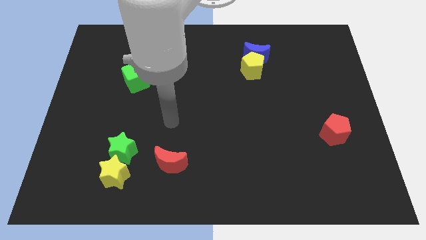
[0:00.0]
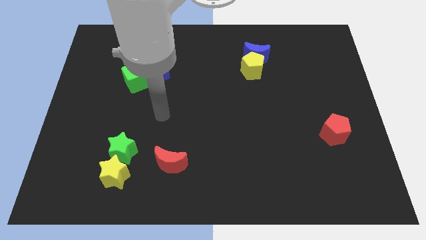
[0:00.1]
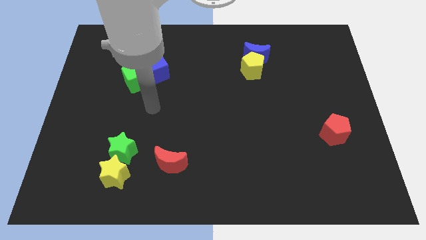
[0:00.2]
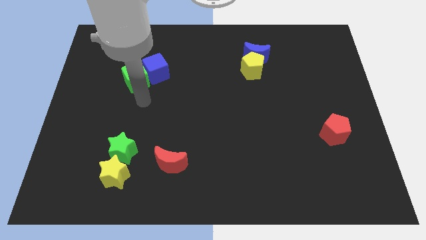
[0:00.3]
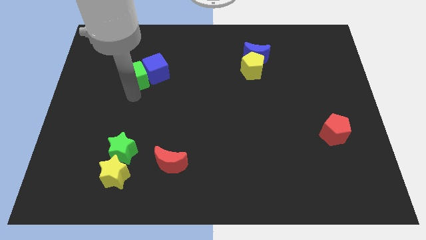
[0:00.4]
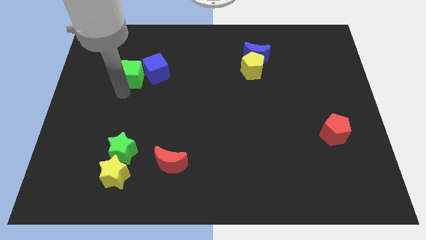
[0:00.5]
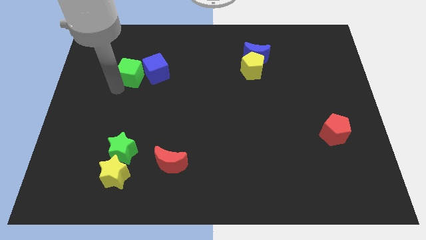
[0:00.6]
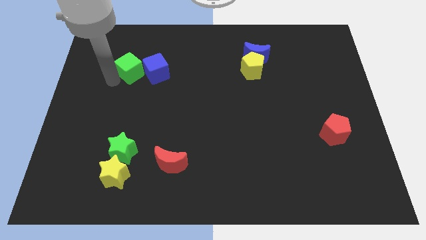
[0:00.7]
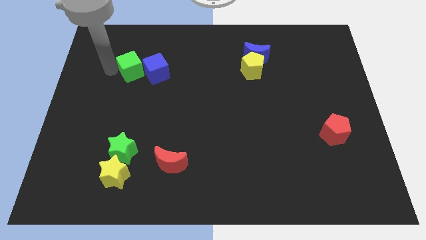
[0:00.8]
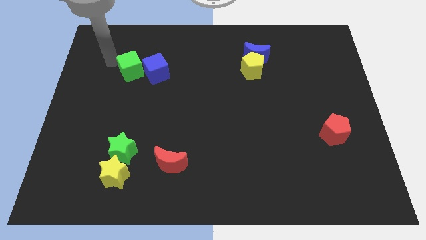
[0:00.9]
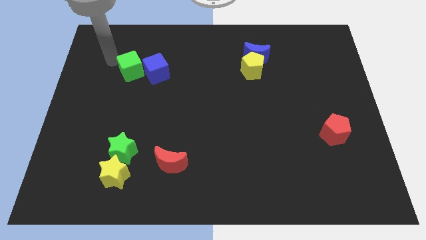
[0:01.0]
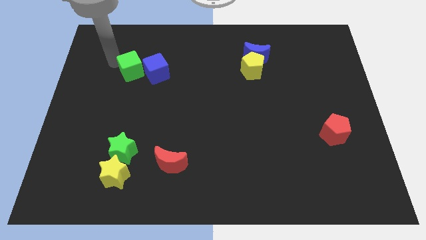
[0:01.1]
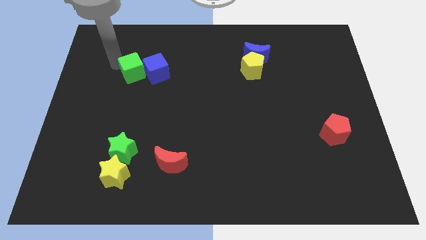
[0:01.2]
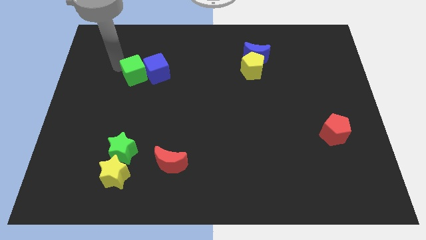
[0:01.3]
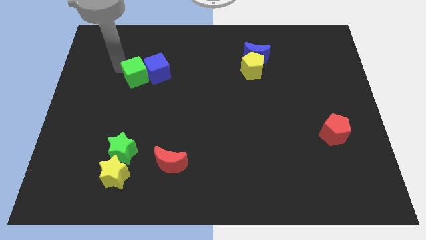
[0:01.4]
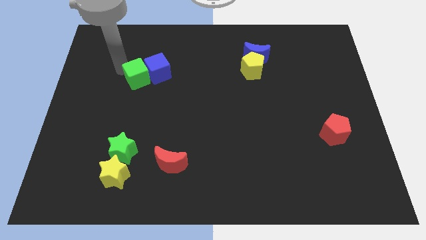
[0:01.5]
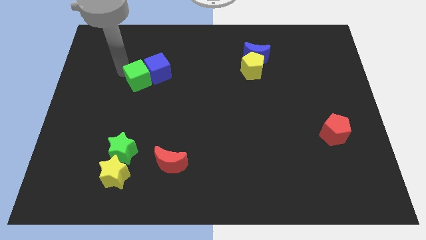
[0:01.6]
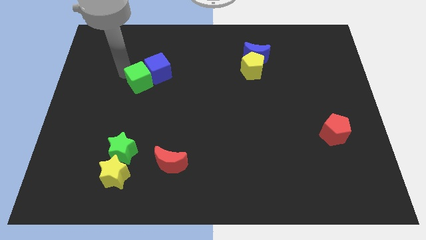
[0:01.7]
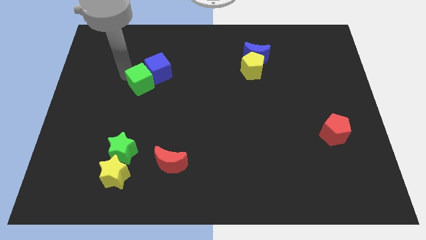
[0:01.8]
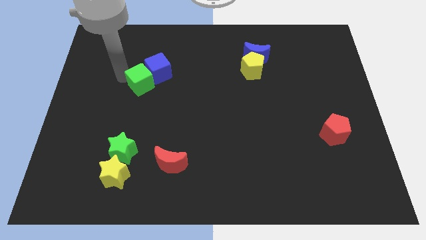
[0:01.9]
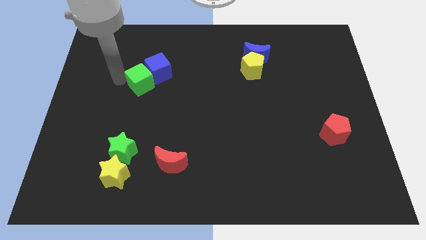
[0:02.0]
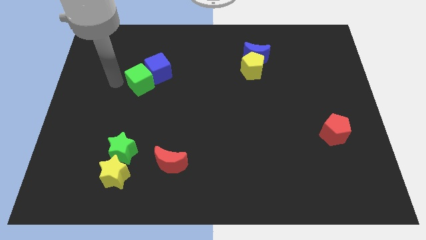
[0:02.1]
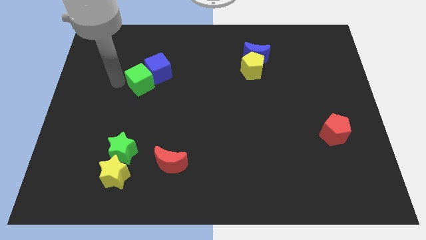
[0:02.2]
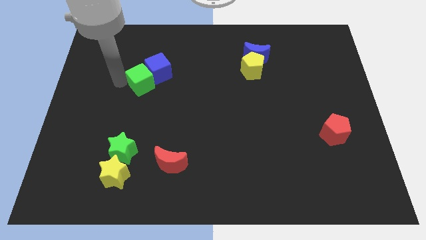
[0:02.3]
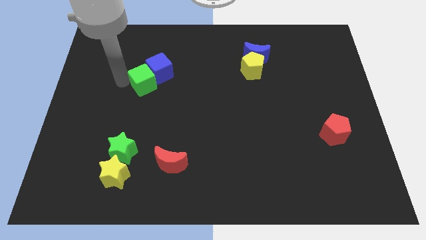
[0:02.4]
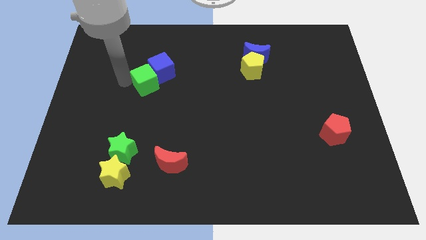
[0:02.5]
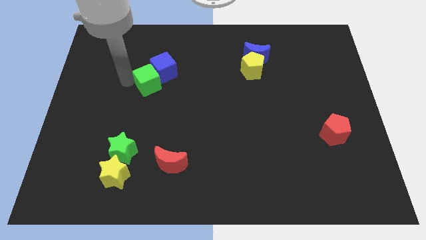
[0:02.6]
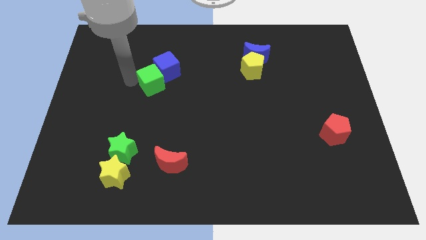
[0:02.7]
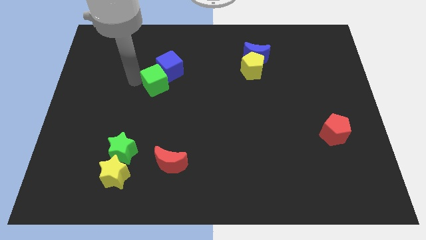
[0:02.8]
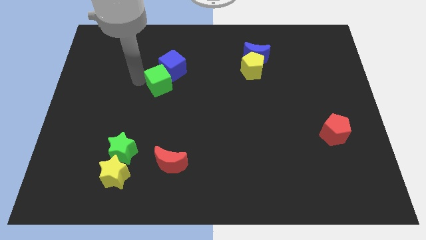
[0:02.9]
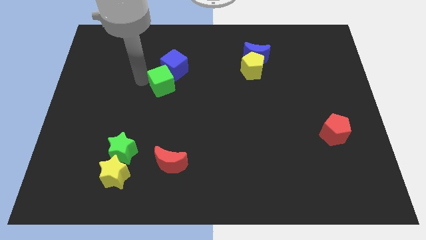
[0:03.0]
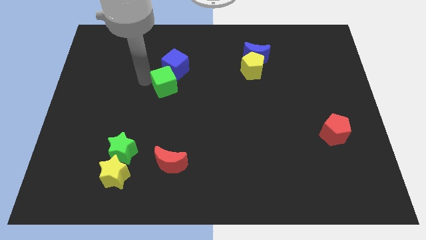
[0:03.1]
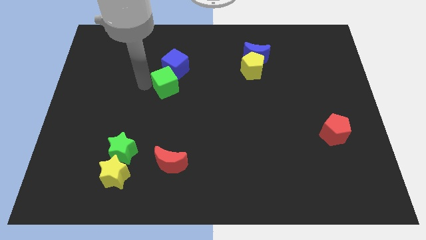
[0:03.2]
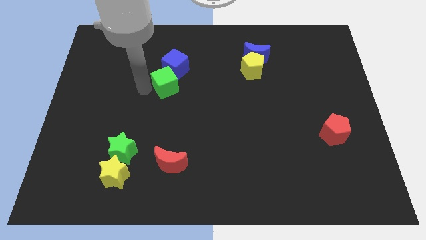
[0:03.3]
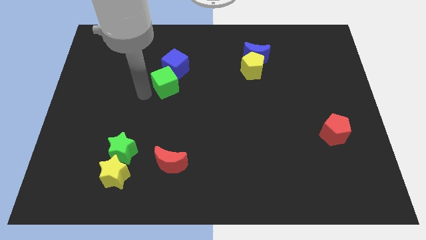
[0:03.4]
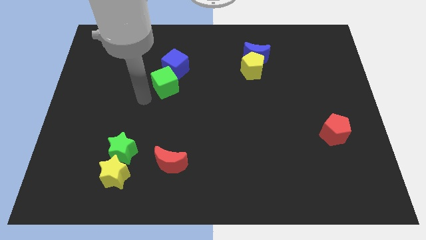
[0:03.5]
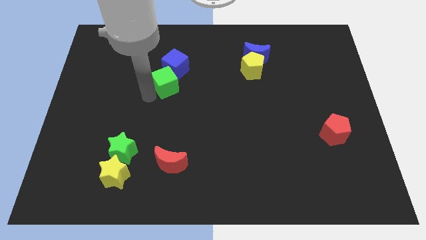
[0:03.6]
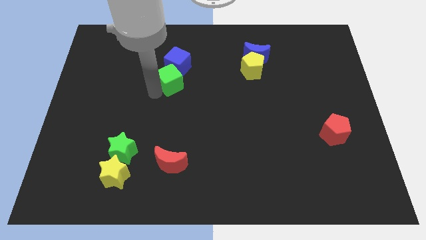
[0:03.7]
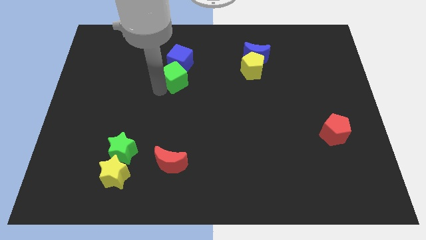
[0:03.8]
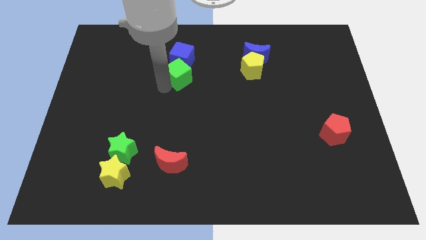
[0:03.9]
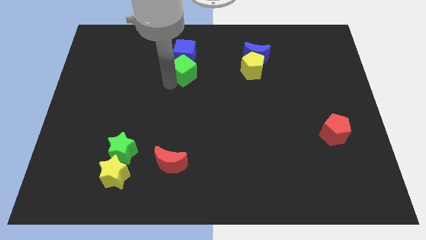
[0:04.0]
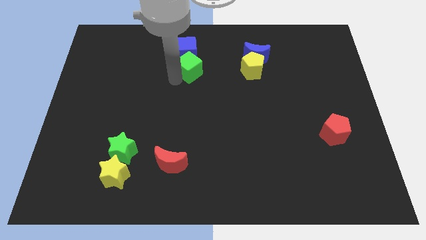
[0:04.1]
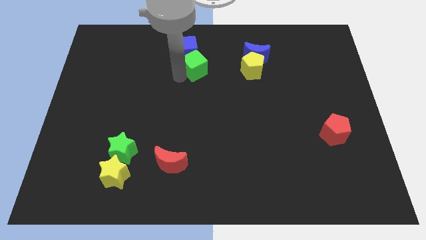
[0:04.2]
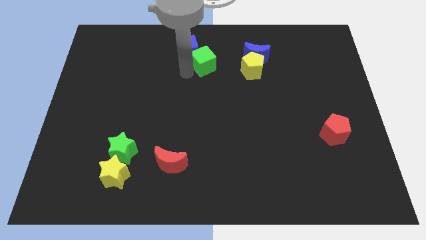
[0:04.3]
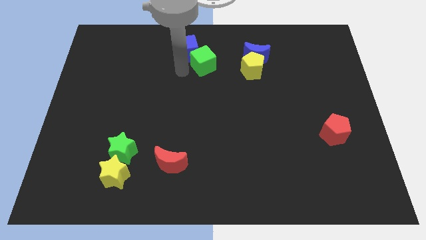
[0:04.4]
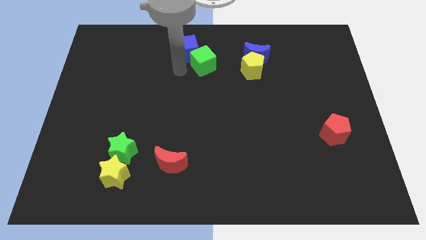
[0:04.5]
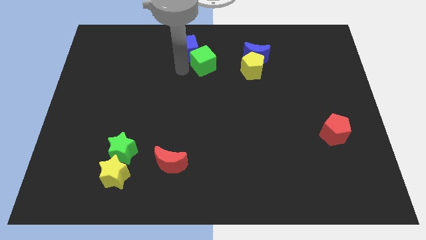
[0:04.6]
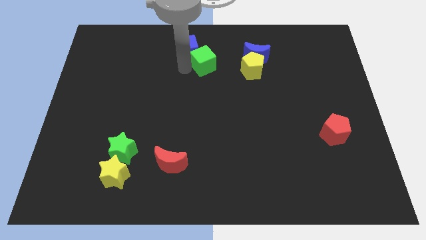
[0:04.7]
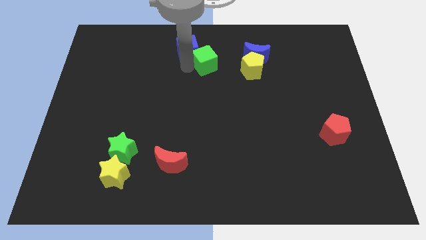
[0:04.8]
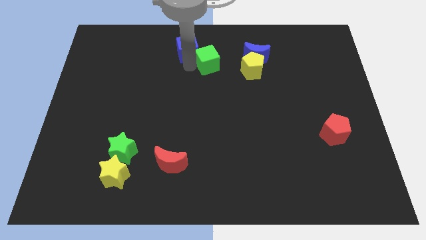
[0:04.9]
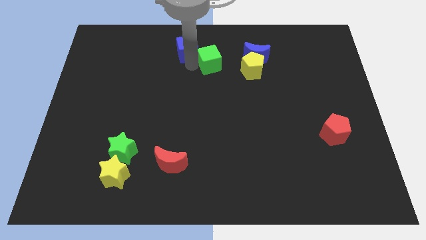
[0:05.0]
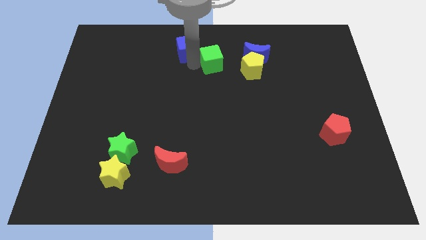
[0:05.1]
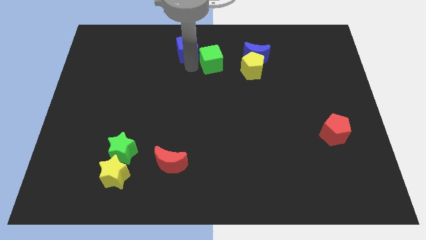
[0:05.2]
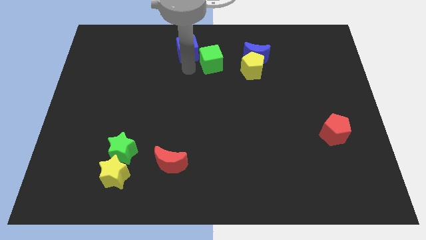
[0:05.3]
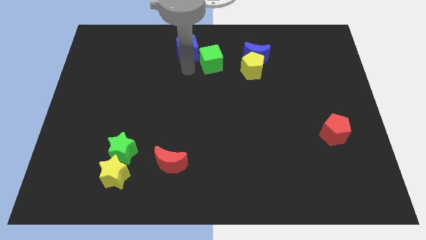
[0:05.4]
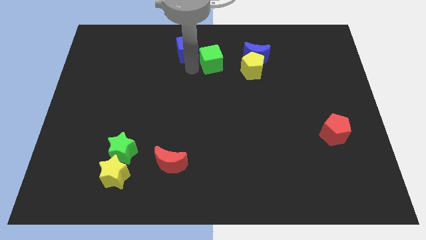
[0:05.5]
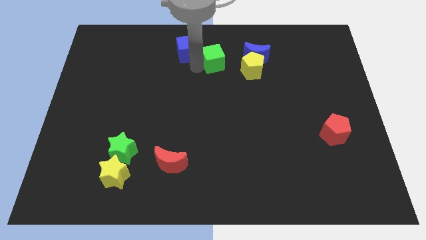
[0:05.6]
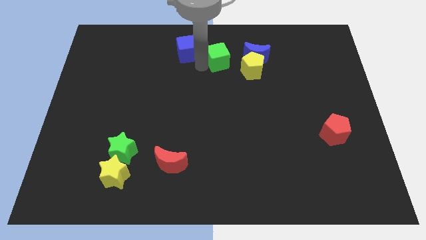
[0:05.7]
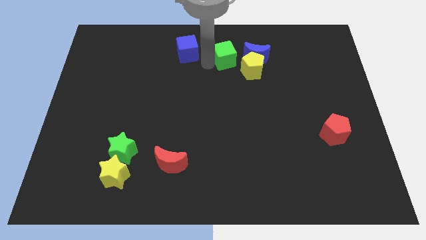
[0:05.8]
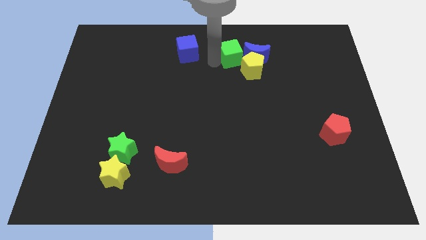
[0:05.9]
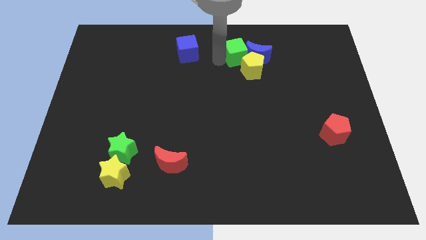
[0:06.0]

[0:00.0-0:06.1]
put the green cube to the blue moon

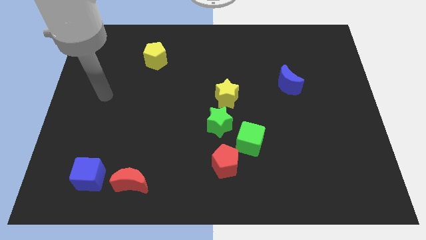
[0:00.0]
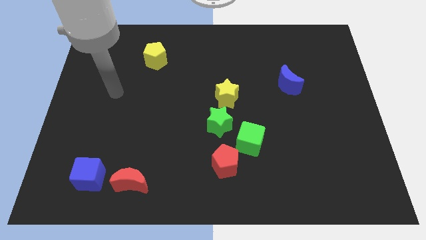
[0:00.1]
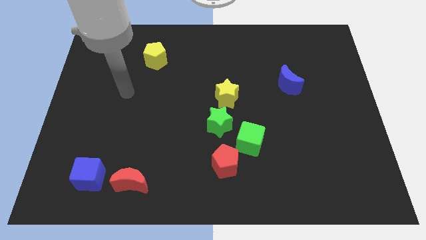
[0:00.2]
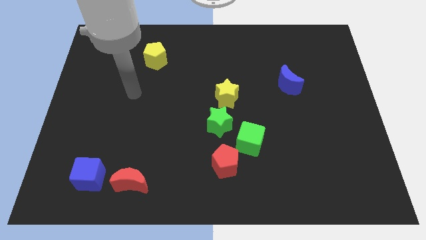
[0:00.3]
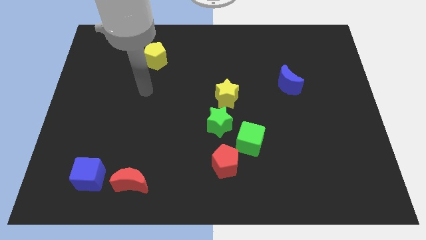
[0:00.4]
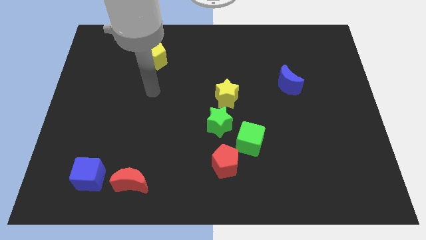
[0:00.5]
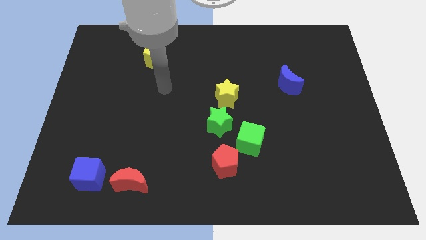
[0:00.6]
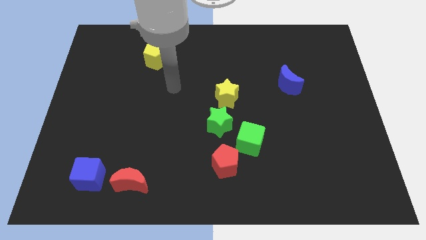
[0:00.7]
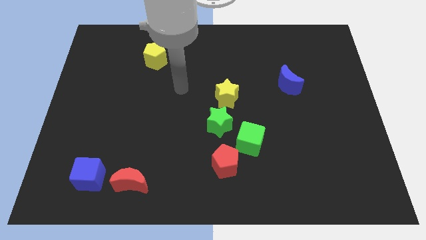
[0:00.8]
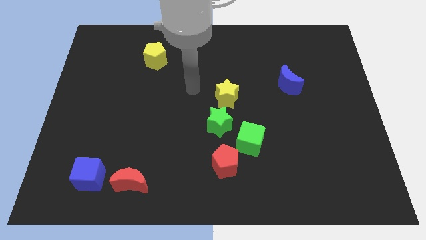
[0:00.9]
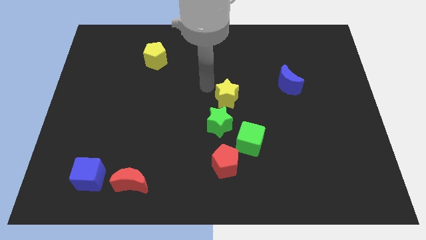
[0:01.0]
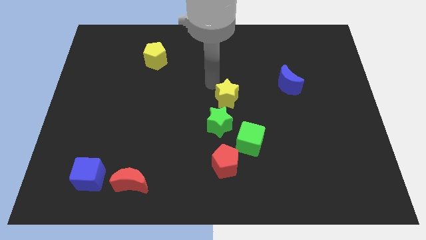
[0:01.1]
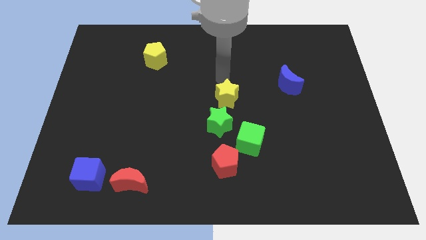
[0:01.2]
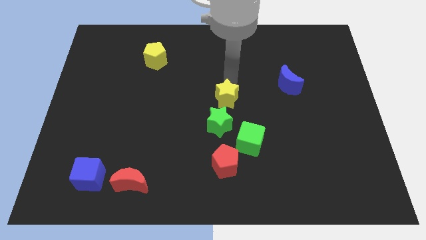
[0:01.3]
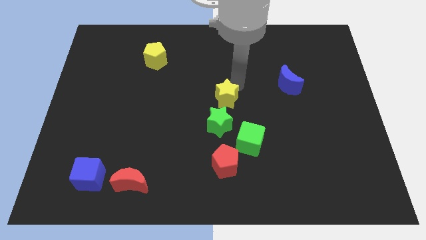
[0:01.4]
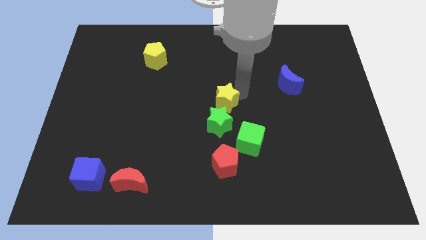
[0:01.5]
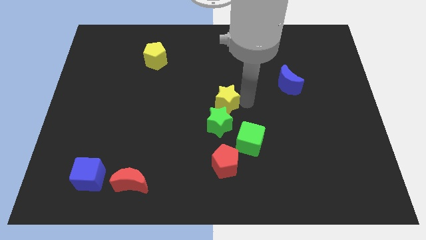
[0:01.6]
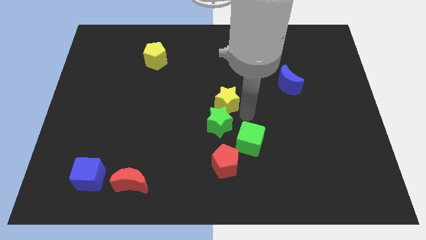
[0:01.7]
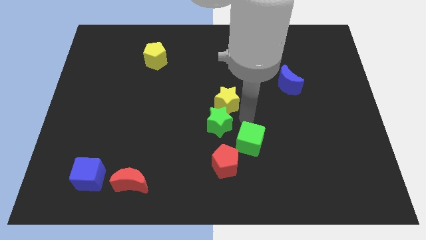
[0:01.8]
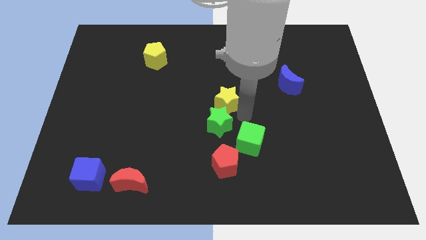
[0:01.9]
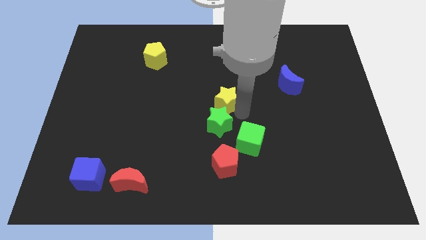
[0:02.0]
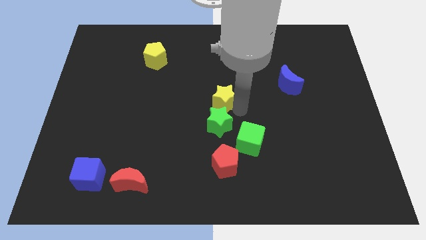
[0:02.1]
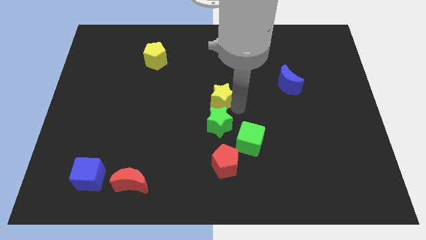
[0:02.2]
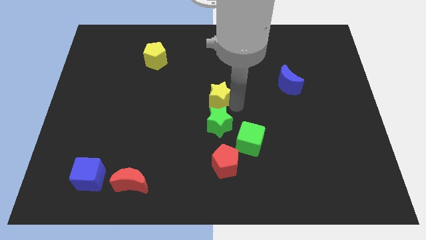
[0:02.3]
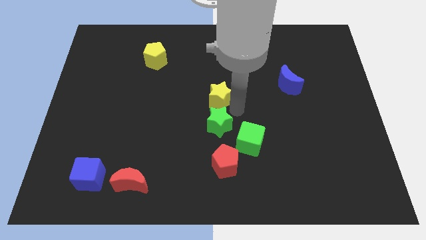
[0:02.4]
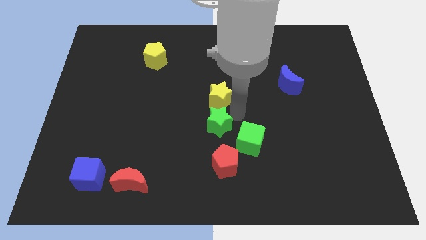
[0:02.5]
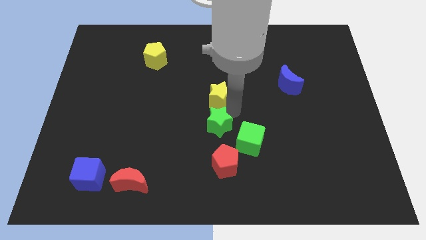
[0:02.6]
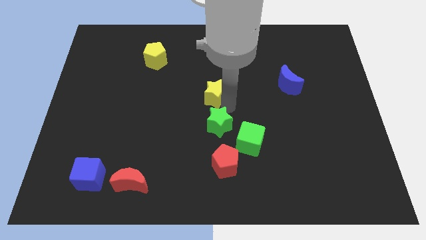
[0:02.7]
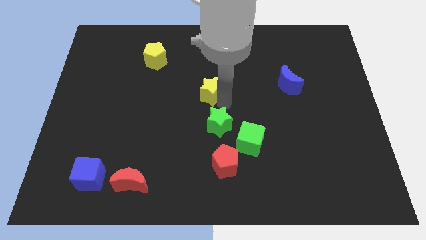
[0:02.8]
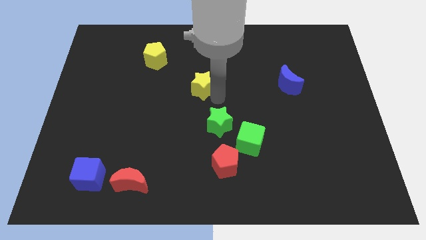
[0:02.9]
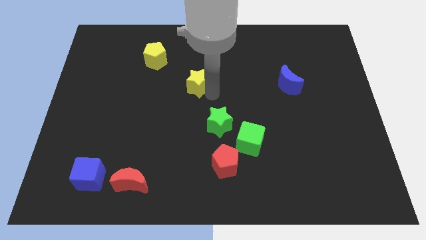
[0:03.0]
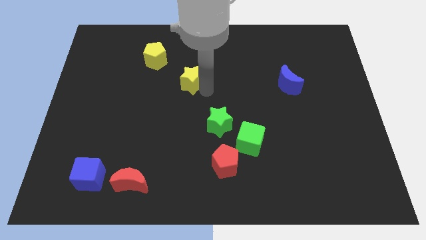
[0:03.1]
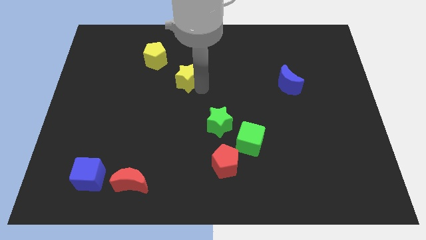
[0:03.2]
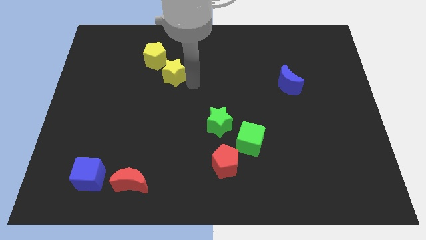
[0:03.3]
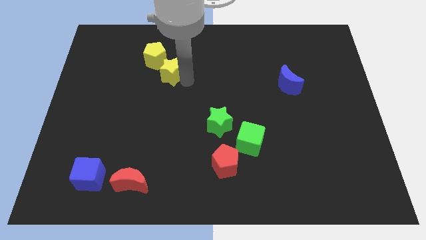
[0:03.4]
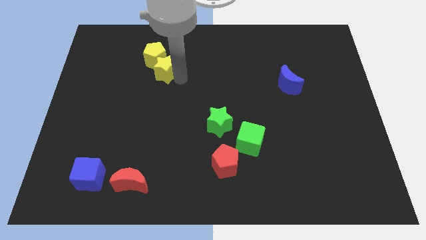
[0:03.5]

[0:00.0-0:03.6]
push the yellow star to the yellow pentagon
